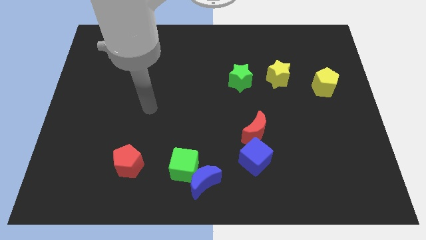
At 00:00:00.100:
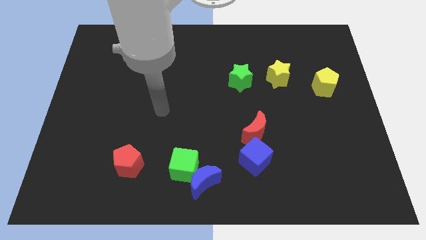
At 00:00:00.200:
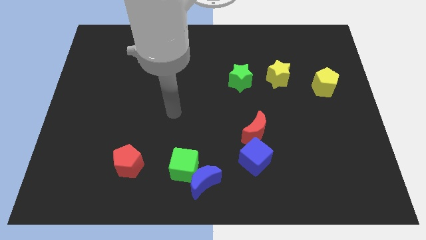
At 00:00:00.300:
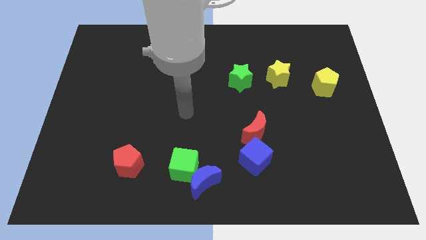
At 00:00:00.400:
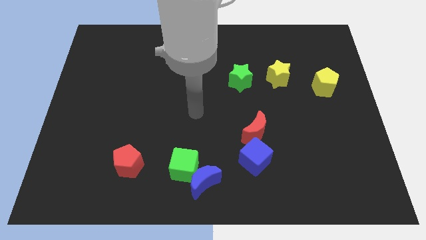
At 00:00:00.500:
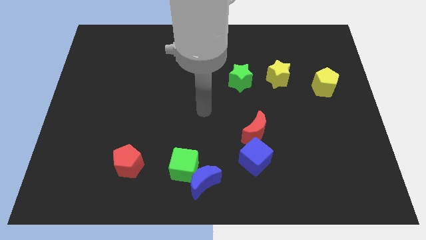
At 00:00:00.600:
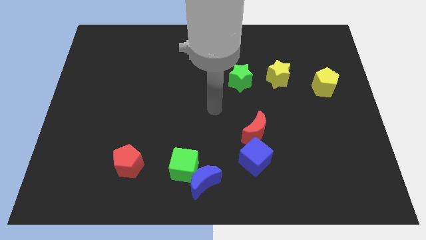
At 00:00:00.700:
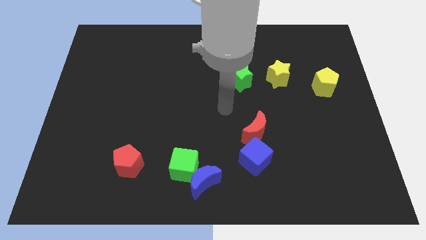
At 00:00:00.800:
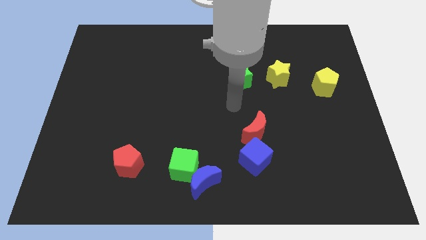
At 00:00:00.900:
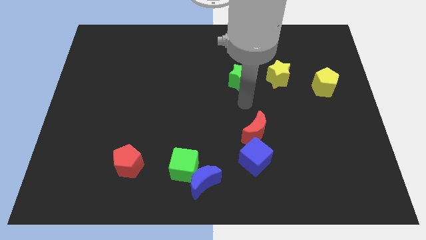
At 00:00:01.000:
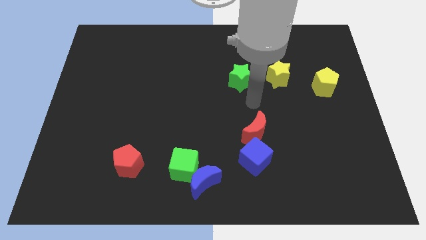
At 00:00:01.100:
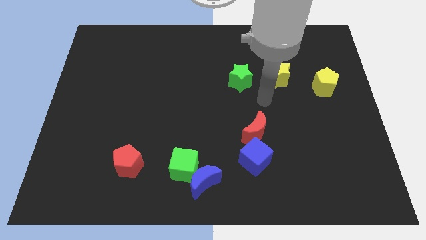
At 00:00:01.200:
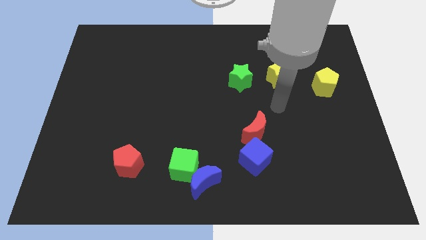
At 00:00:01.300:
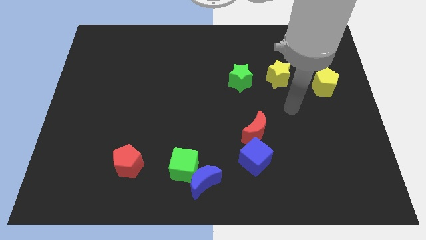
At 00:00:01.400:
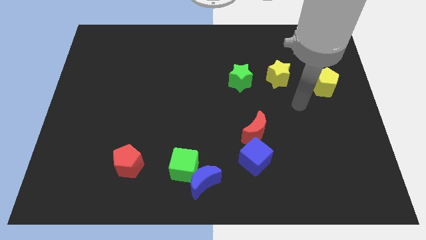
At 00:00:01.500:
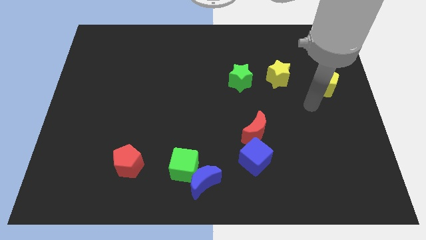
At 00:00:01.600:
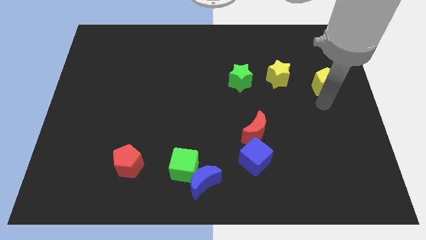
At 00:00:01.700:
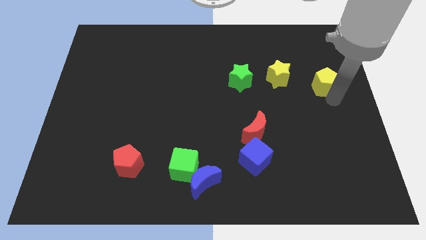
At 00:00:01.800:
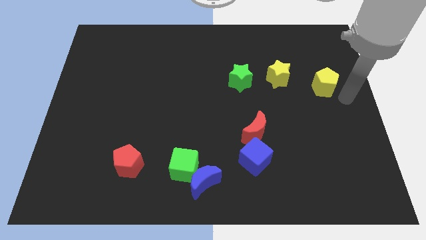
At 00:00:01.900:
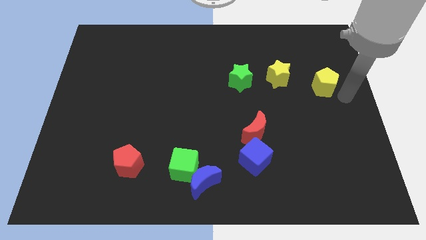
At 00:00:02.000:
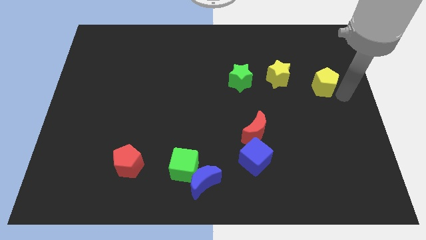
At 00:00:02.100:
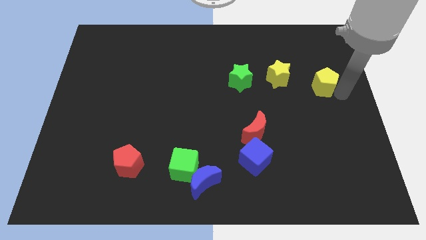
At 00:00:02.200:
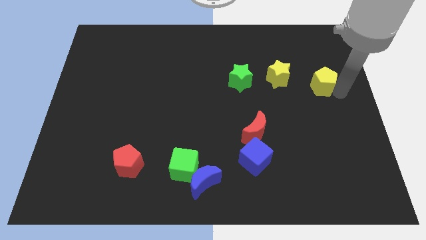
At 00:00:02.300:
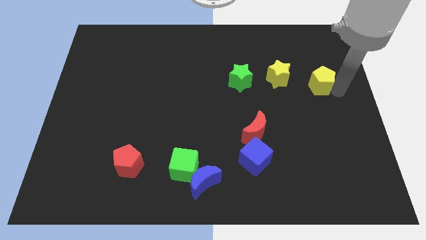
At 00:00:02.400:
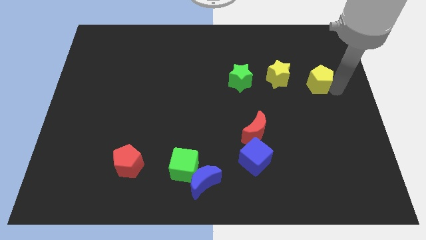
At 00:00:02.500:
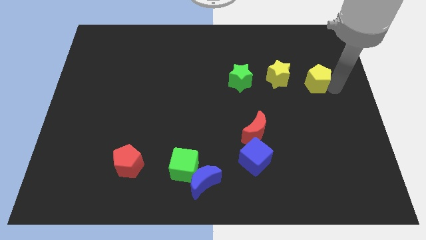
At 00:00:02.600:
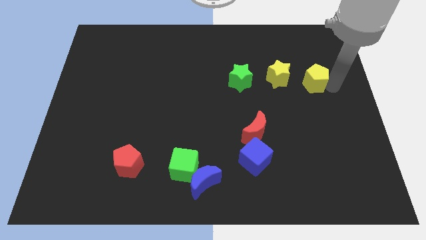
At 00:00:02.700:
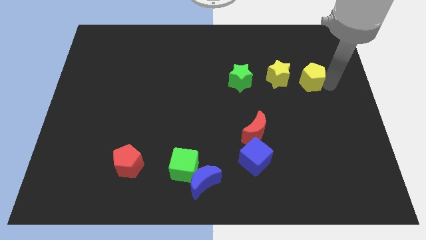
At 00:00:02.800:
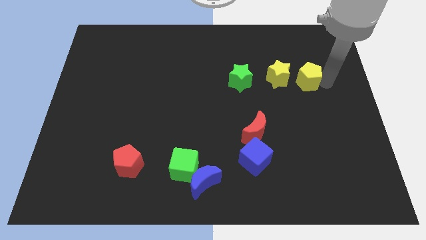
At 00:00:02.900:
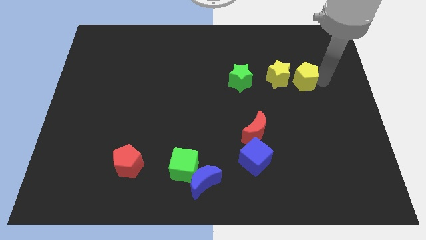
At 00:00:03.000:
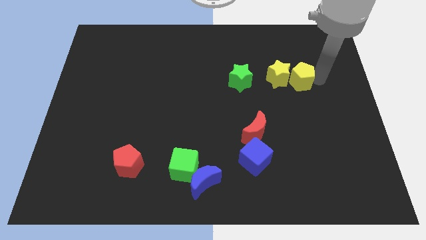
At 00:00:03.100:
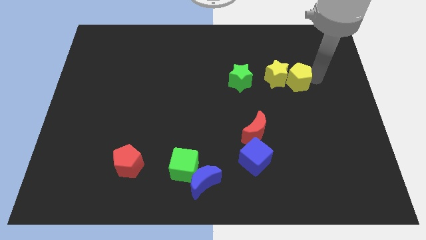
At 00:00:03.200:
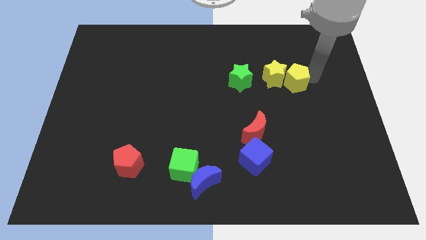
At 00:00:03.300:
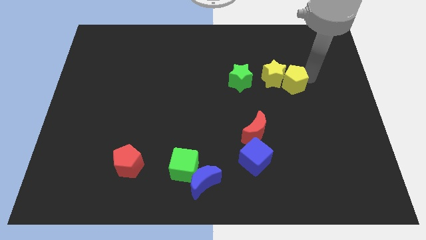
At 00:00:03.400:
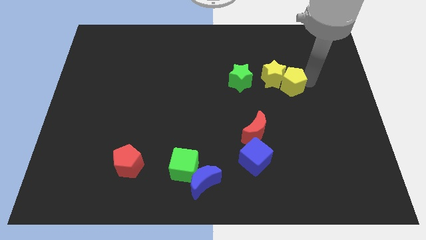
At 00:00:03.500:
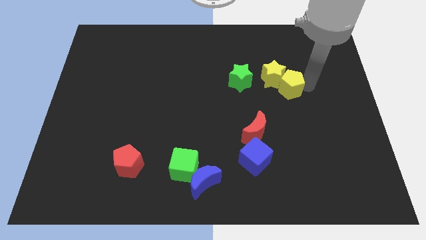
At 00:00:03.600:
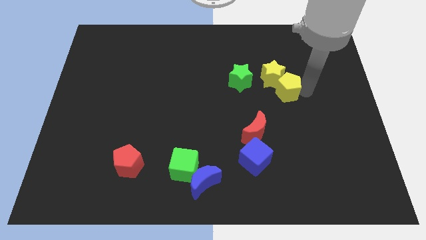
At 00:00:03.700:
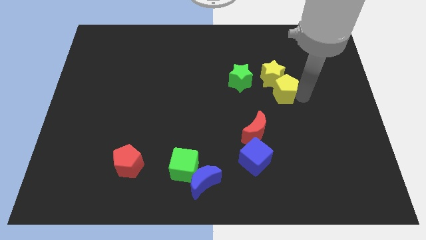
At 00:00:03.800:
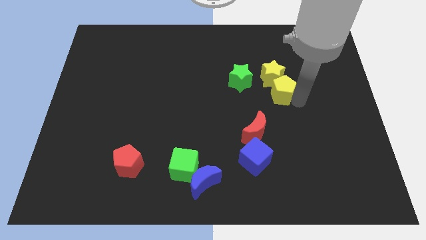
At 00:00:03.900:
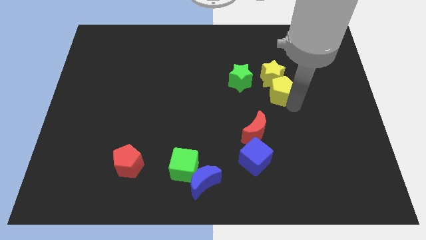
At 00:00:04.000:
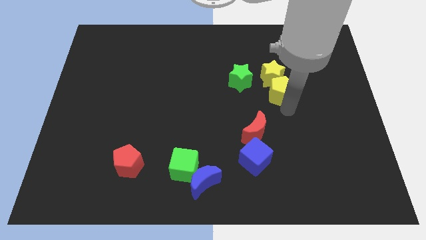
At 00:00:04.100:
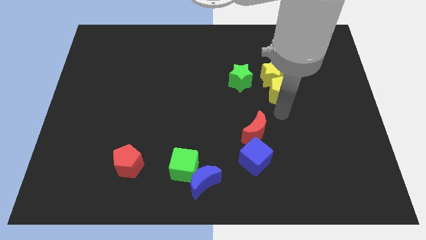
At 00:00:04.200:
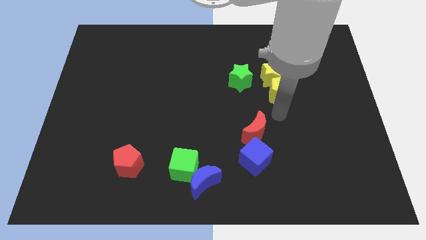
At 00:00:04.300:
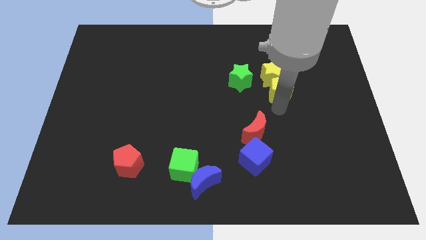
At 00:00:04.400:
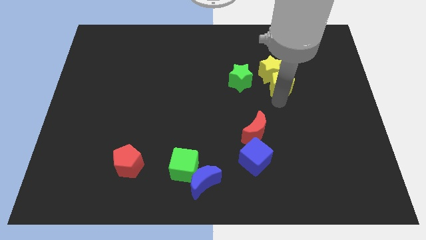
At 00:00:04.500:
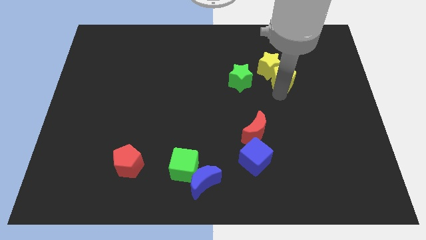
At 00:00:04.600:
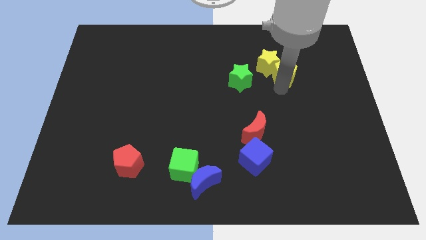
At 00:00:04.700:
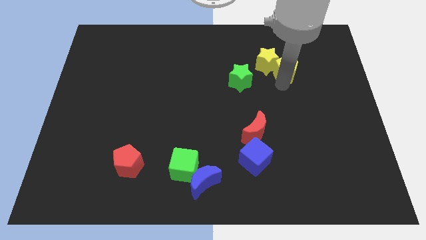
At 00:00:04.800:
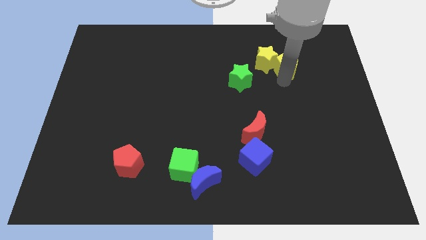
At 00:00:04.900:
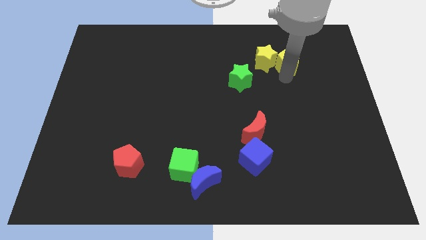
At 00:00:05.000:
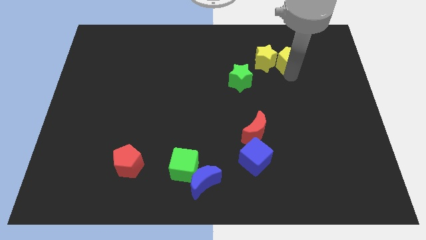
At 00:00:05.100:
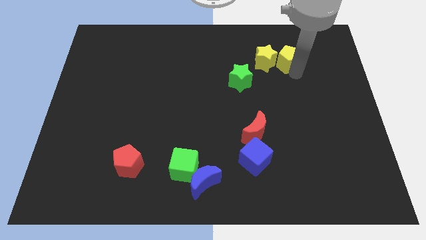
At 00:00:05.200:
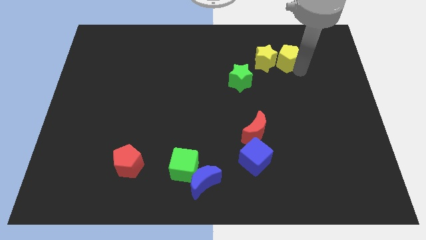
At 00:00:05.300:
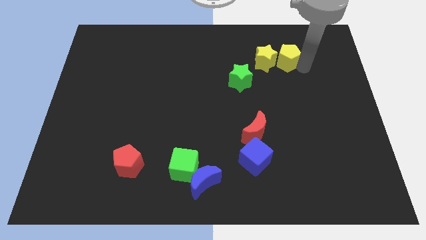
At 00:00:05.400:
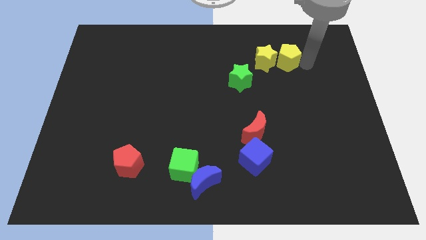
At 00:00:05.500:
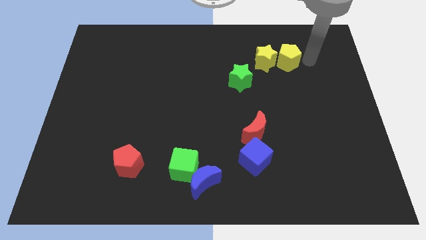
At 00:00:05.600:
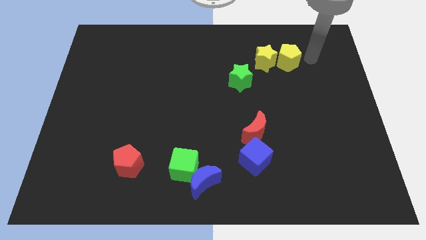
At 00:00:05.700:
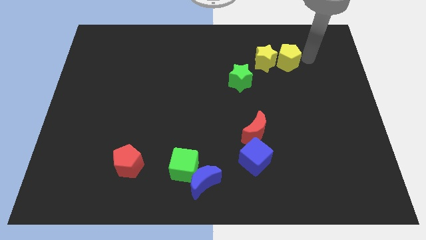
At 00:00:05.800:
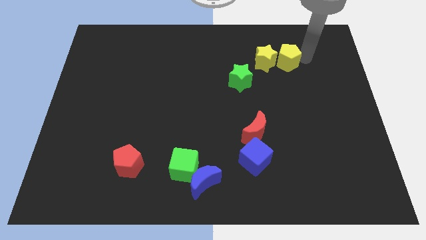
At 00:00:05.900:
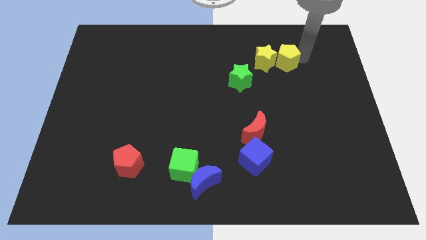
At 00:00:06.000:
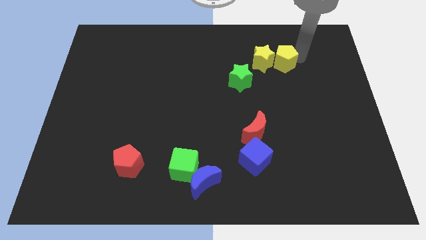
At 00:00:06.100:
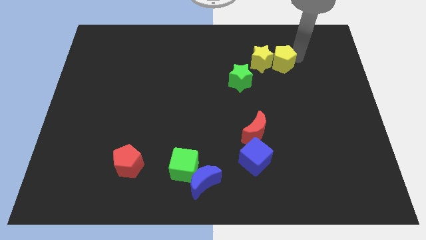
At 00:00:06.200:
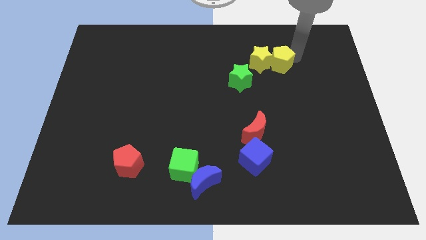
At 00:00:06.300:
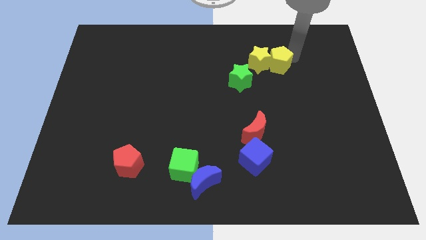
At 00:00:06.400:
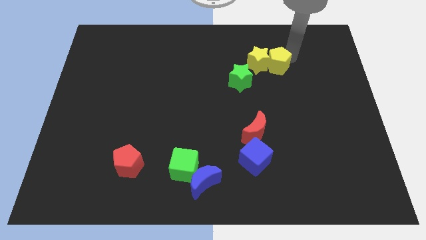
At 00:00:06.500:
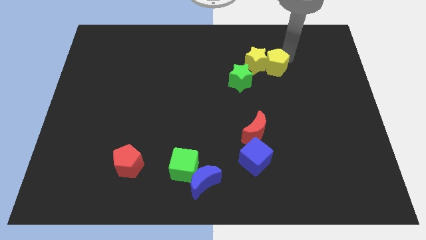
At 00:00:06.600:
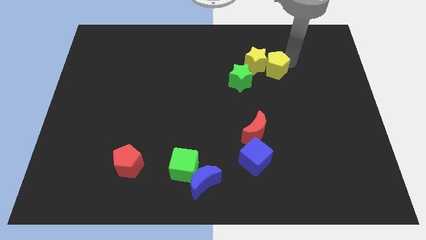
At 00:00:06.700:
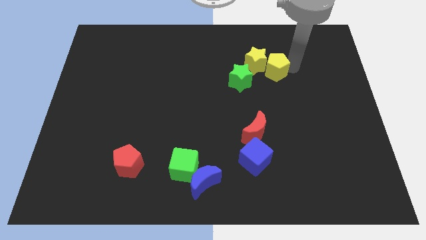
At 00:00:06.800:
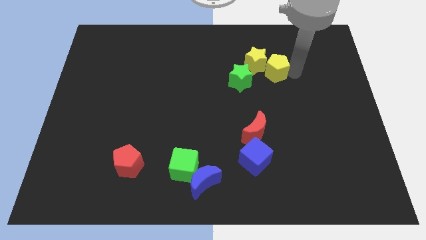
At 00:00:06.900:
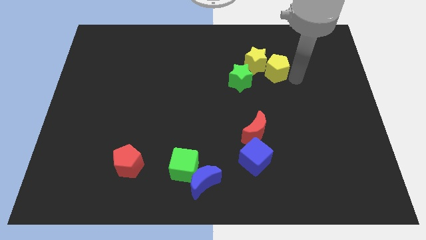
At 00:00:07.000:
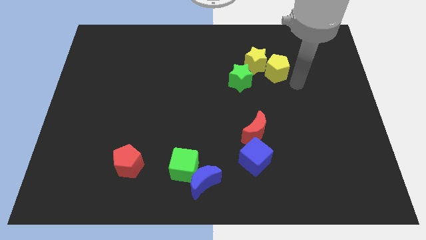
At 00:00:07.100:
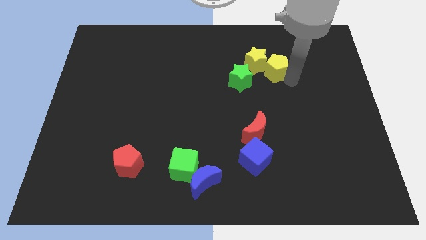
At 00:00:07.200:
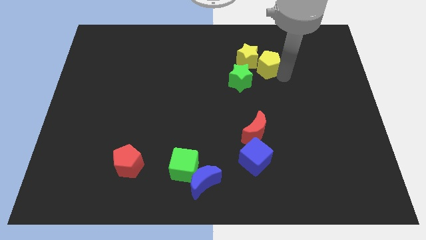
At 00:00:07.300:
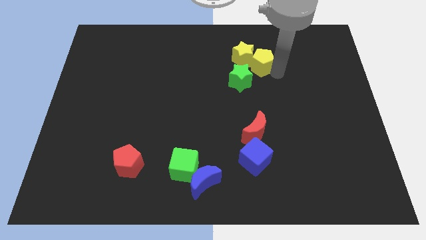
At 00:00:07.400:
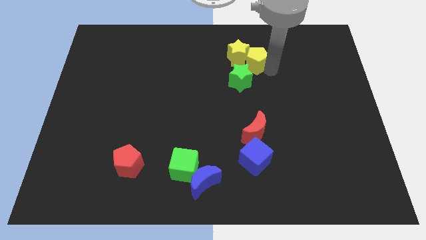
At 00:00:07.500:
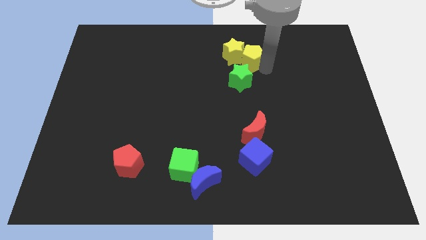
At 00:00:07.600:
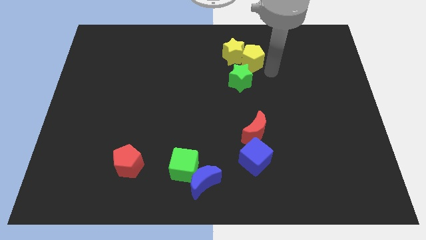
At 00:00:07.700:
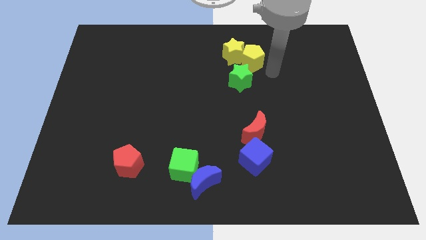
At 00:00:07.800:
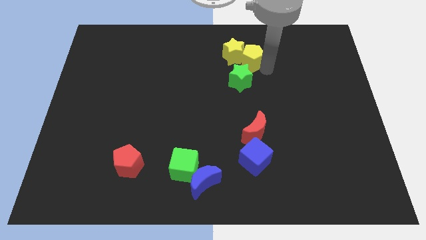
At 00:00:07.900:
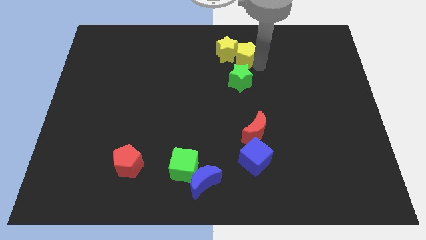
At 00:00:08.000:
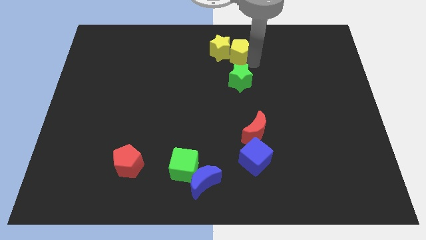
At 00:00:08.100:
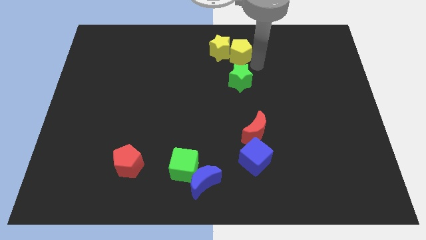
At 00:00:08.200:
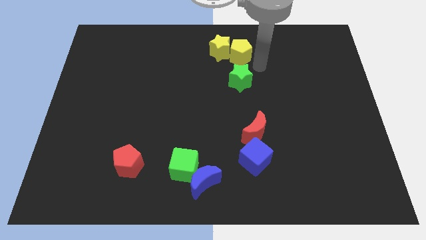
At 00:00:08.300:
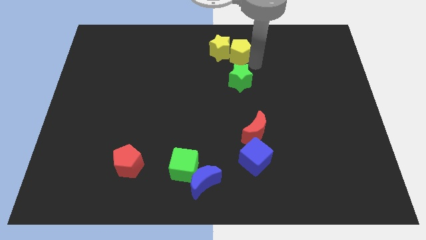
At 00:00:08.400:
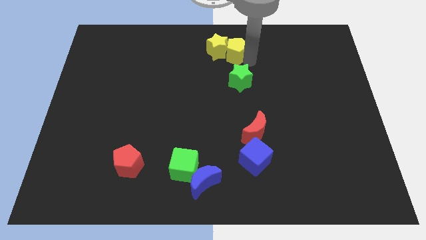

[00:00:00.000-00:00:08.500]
put the yellow pentagon to the towards your base
